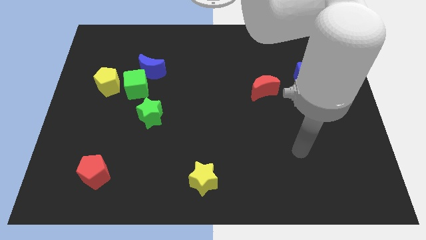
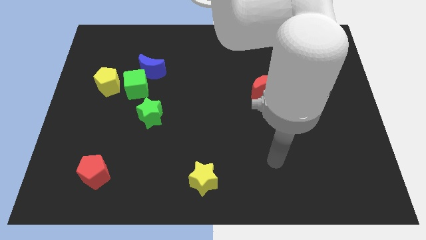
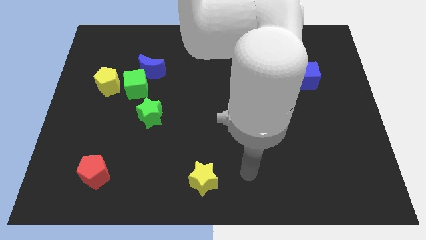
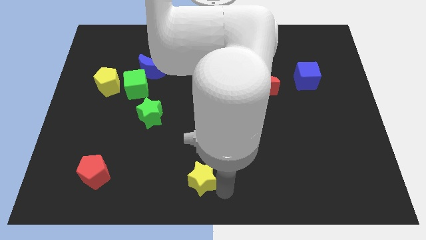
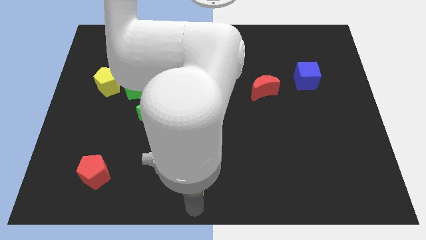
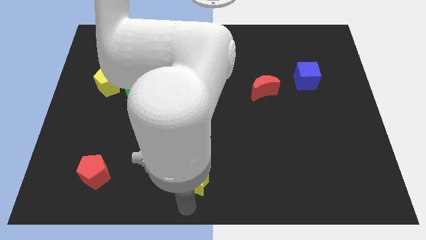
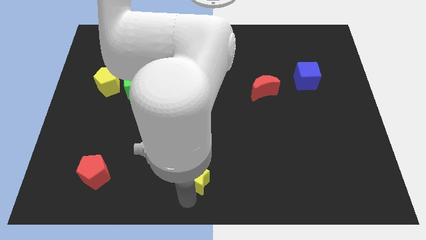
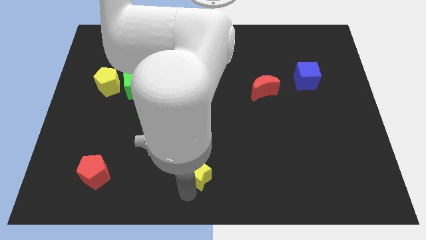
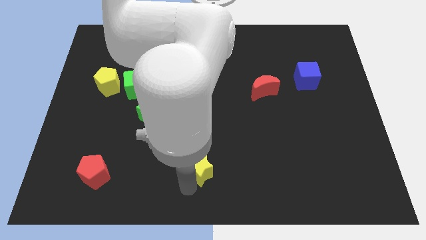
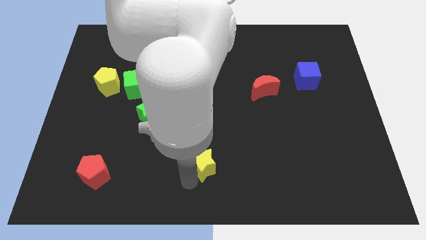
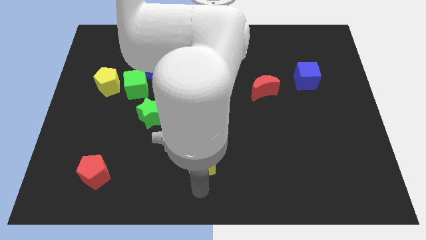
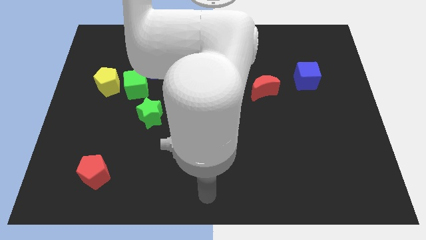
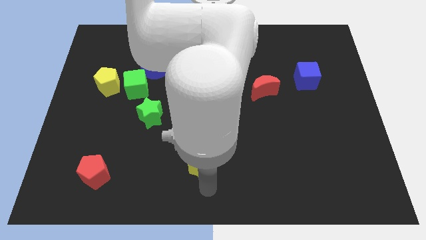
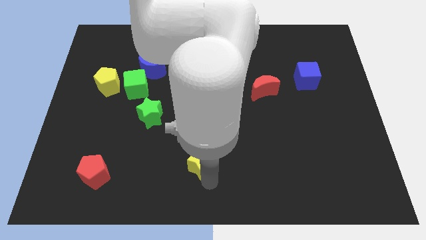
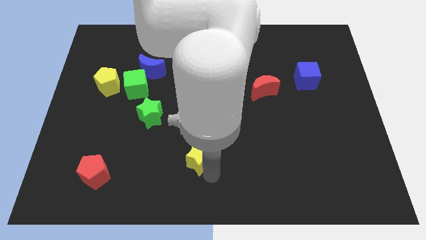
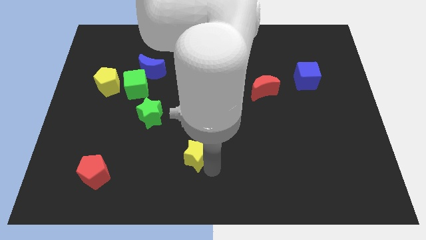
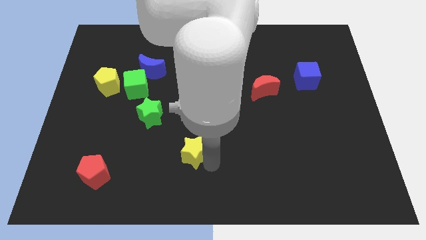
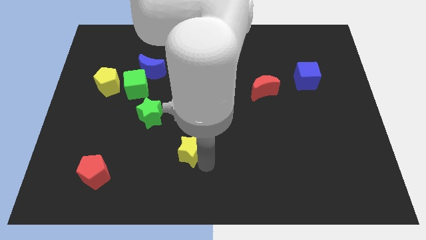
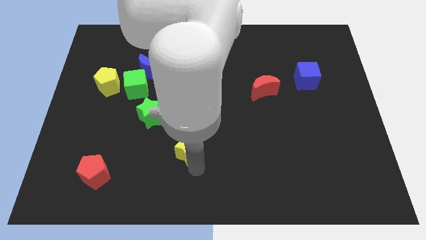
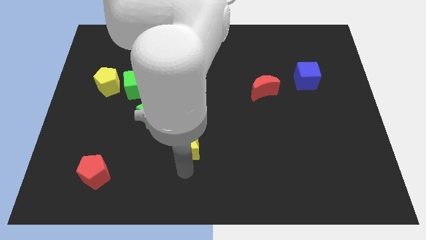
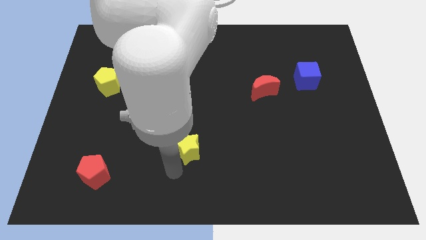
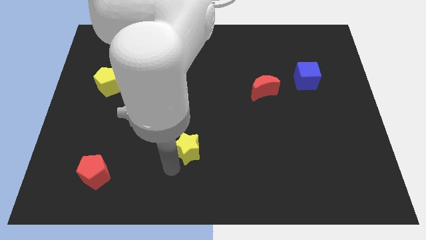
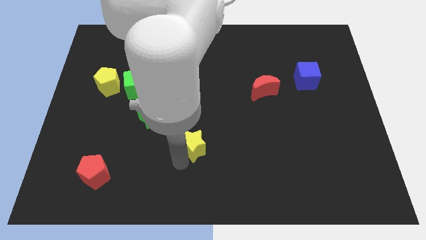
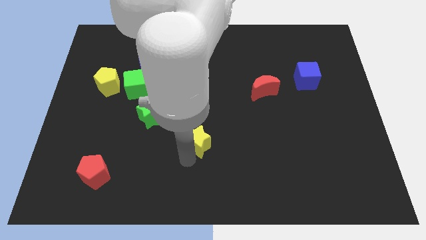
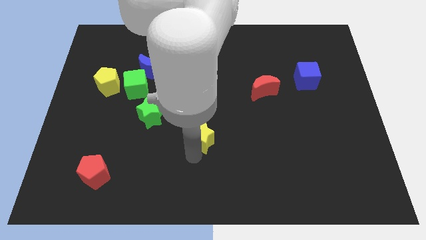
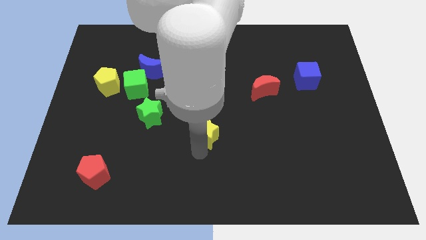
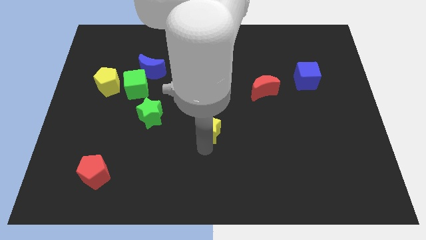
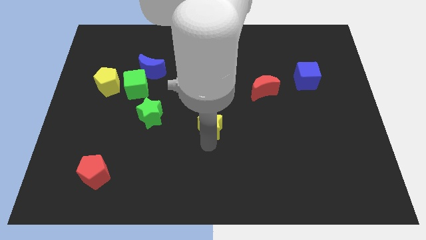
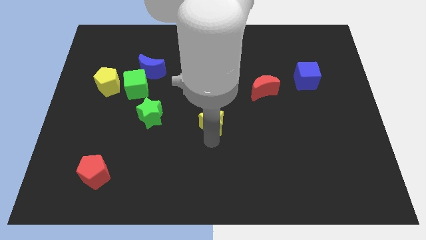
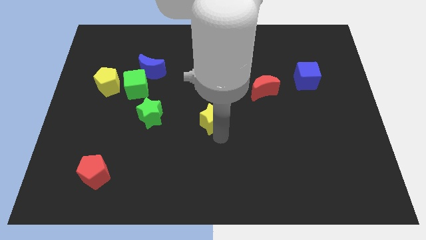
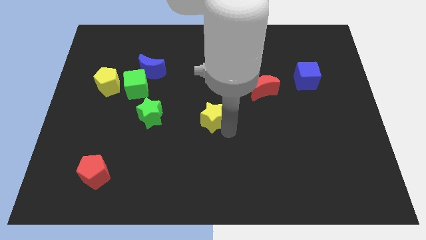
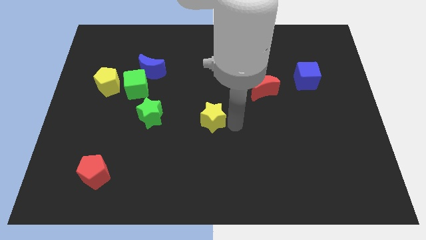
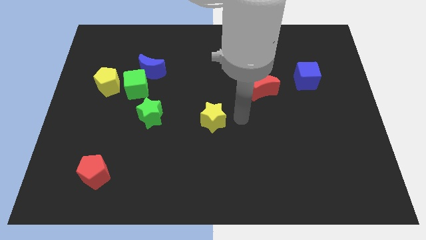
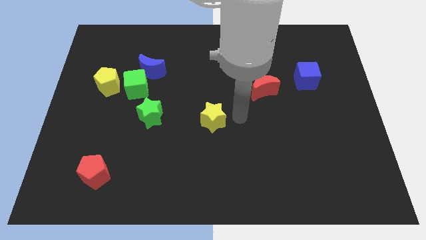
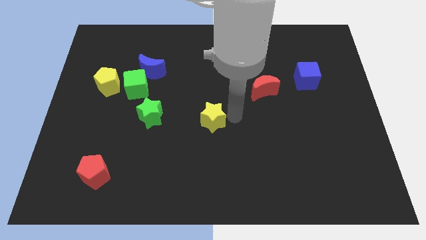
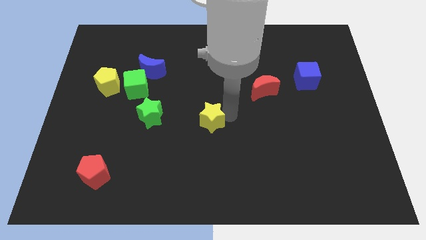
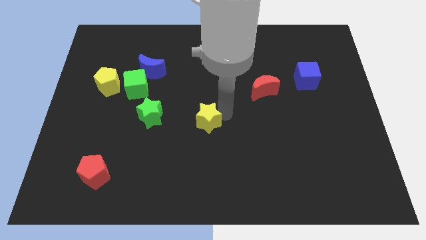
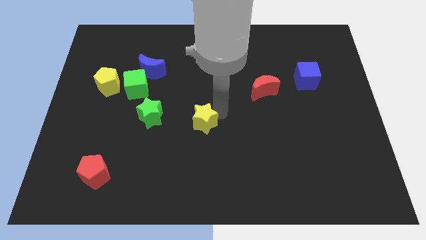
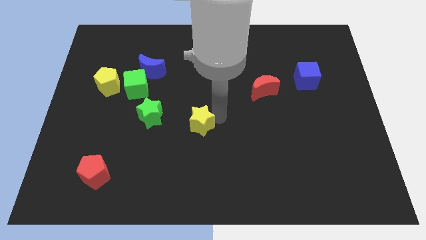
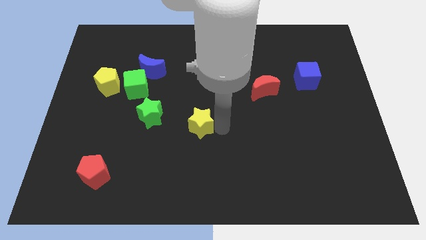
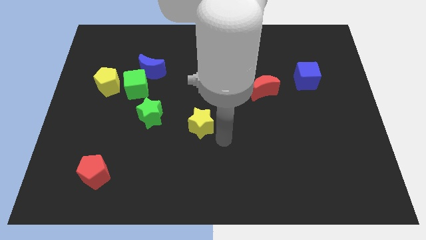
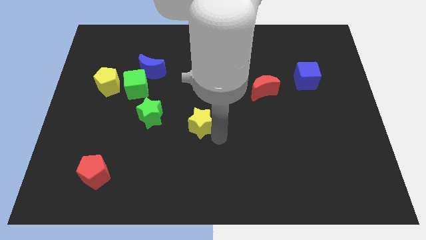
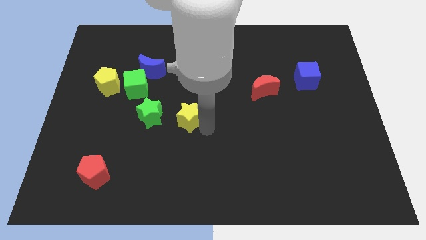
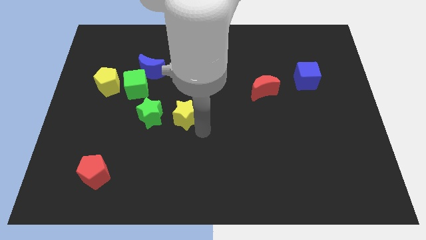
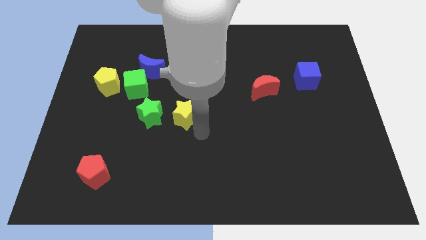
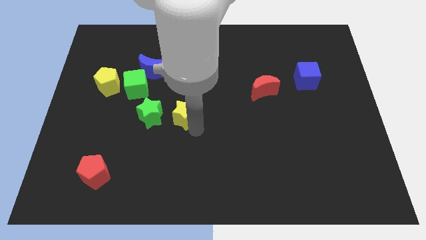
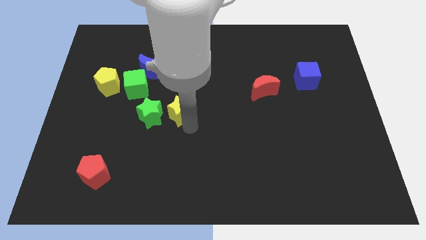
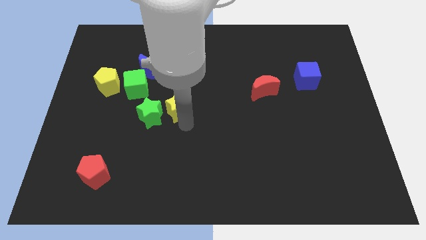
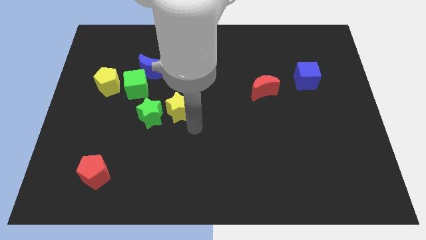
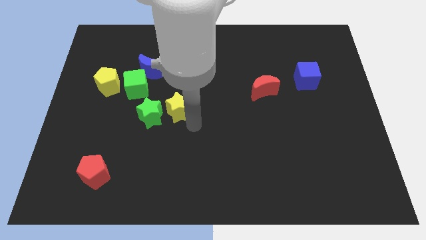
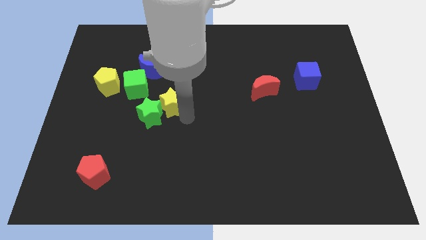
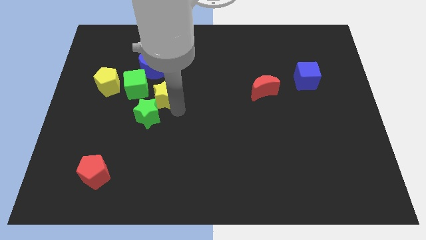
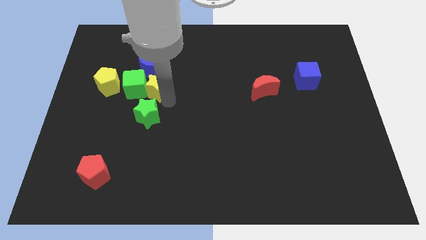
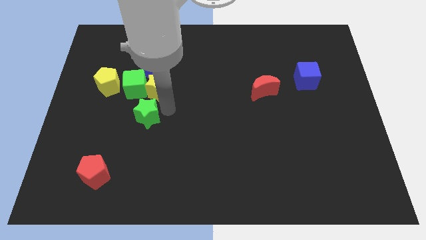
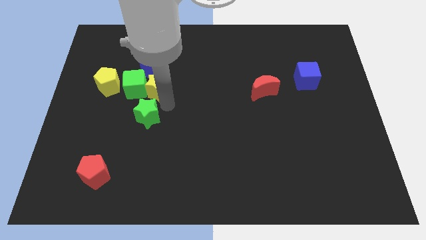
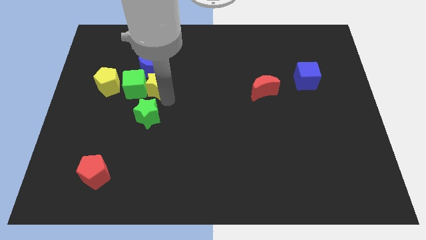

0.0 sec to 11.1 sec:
put the yellow star close to the blue moon

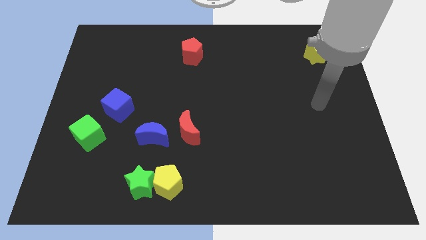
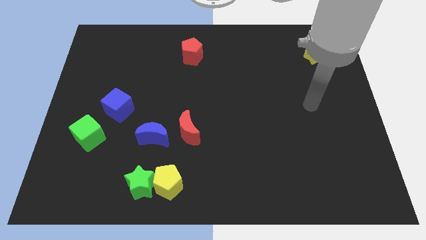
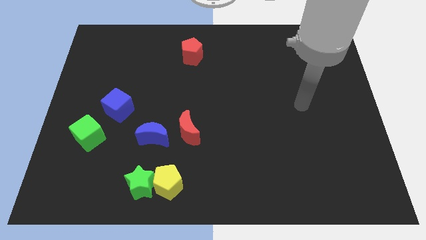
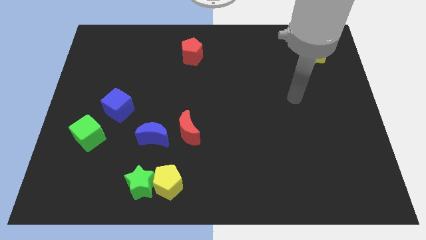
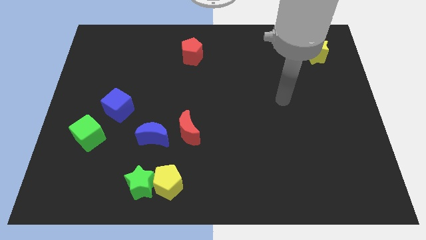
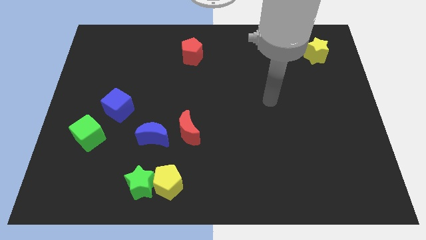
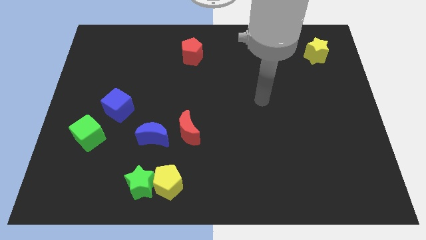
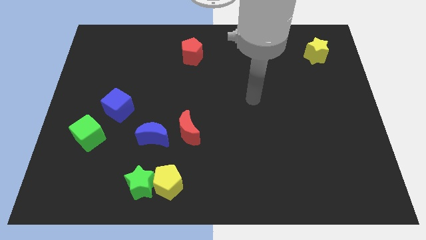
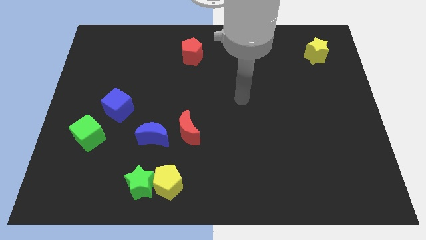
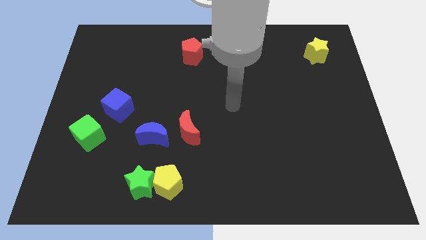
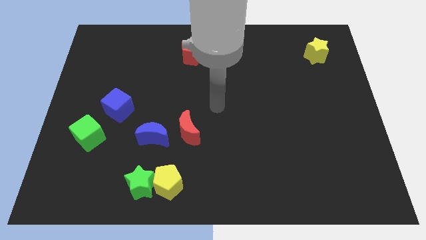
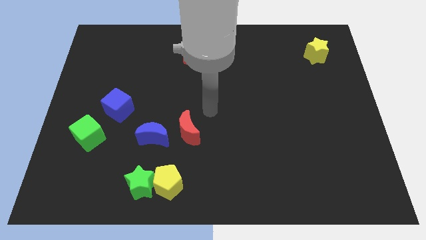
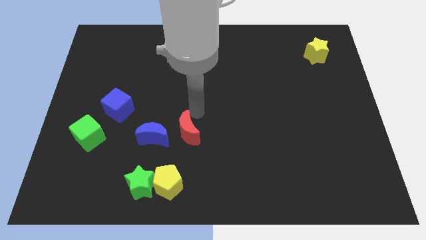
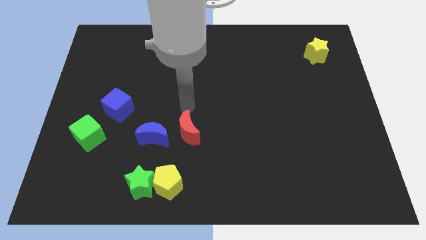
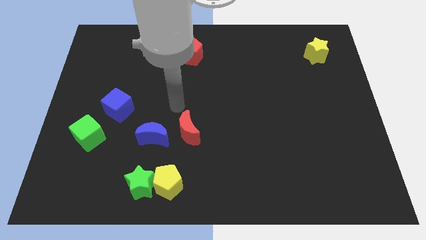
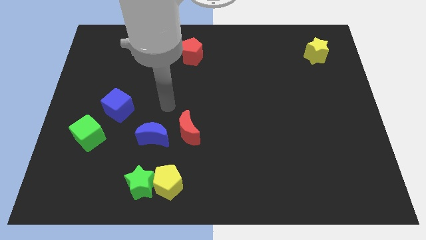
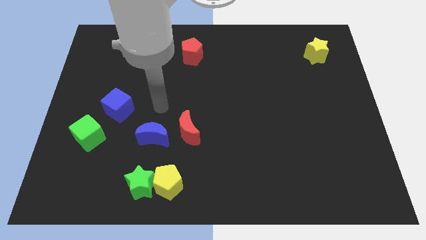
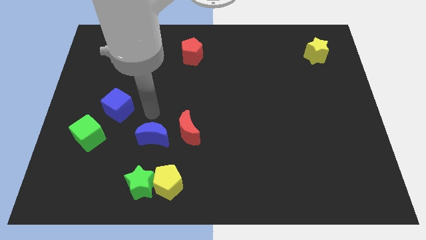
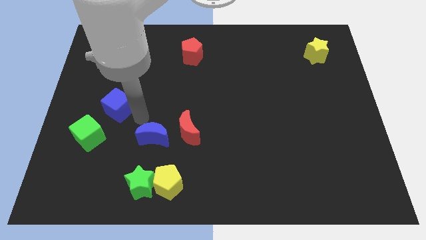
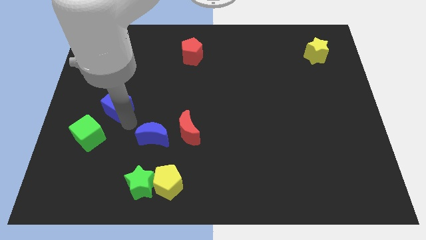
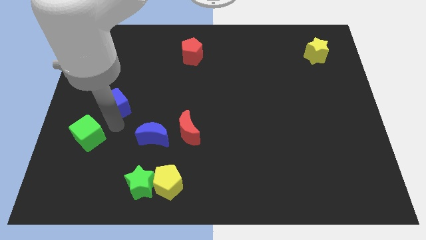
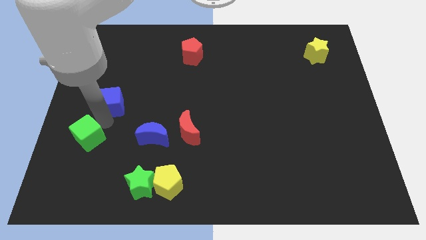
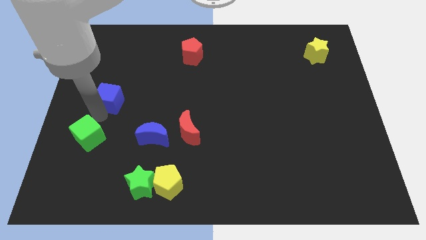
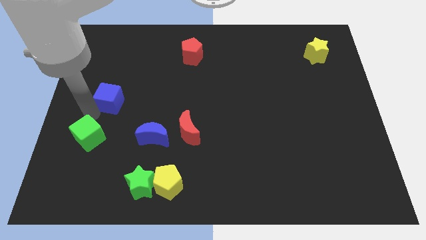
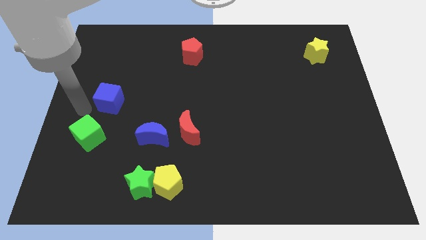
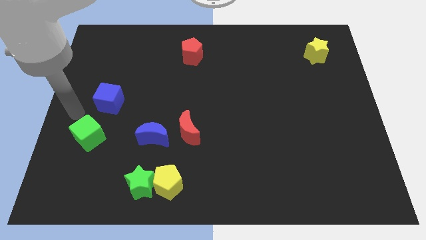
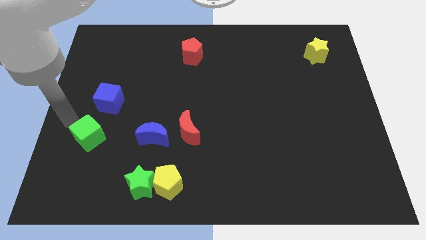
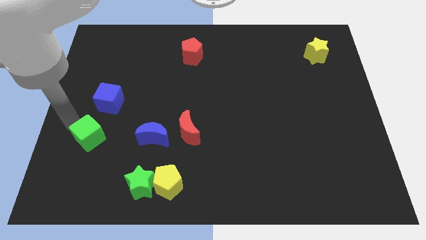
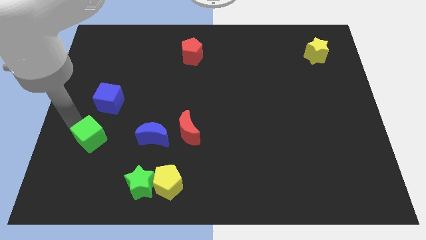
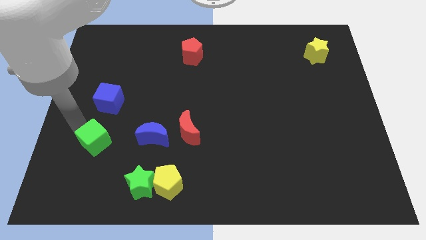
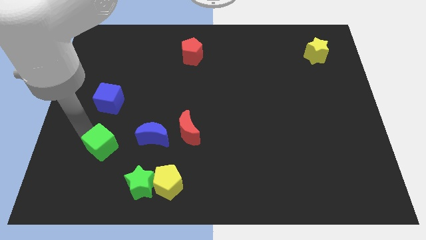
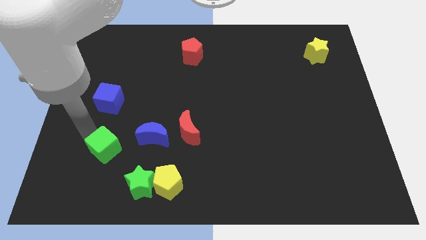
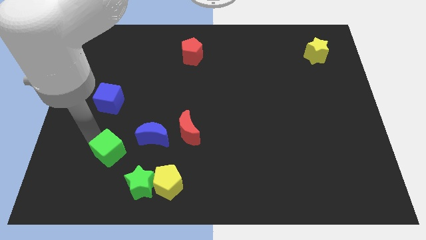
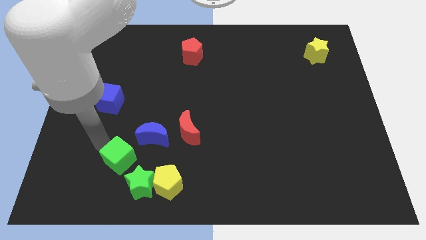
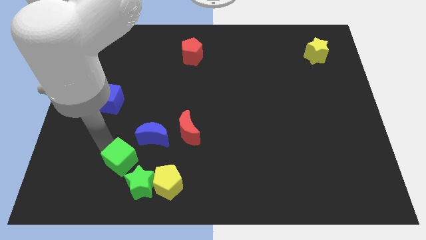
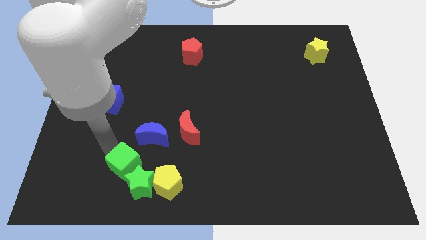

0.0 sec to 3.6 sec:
move the green cube towards the green star
